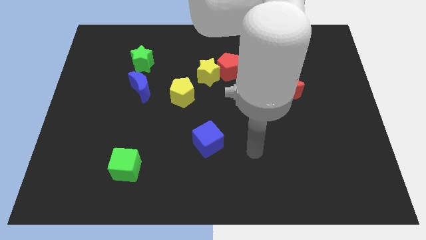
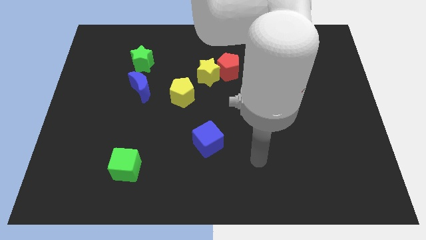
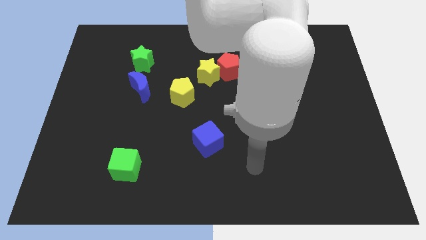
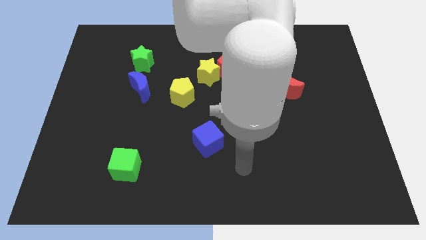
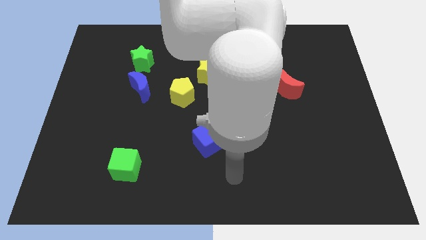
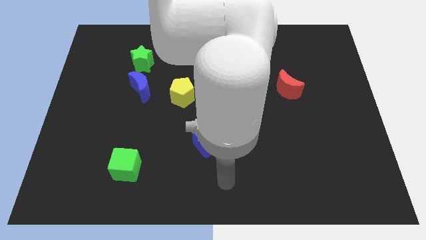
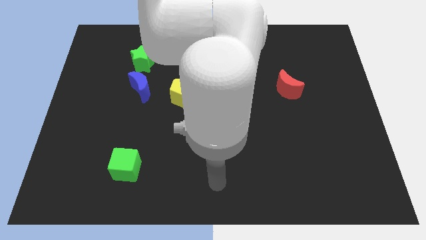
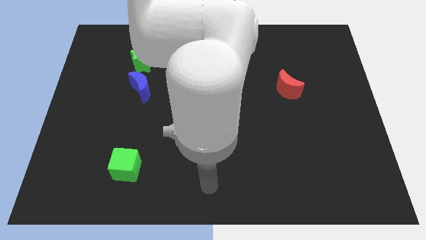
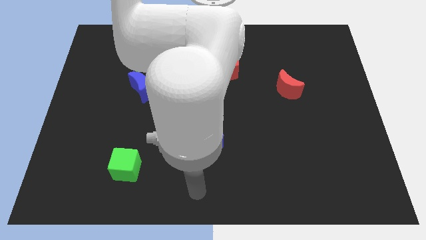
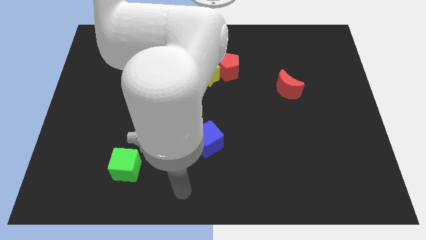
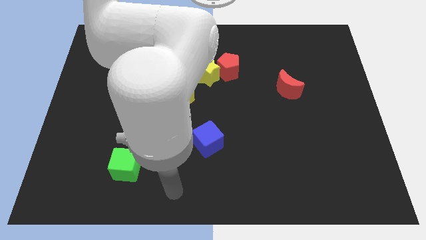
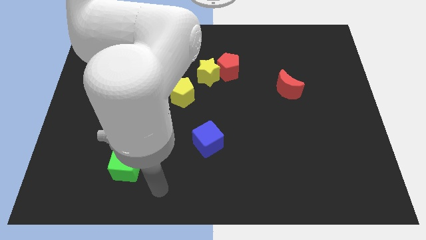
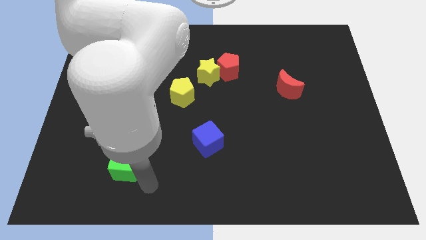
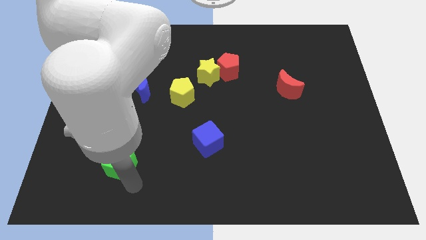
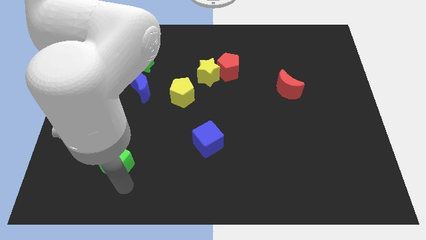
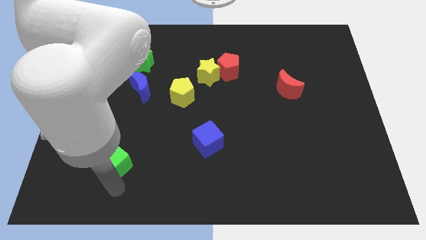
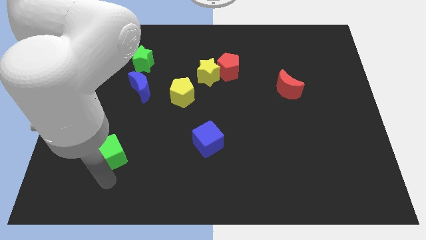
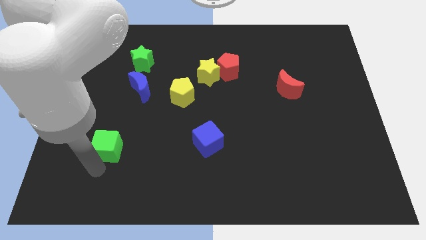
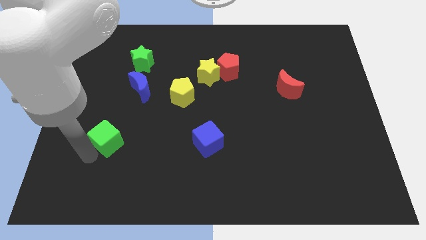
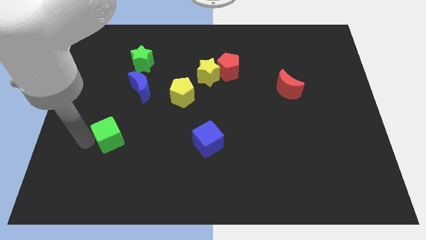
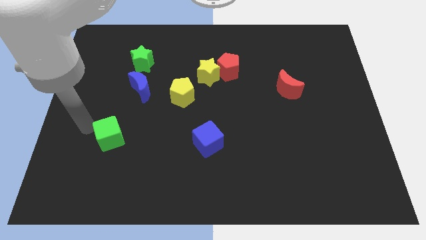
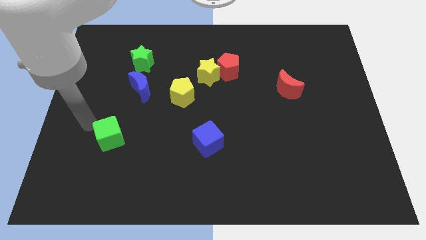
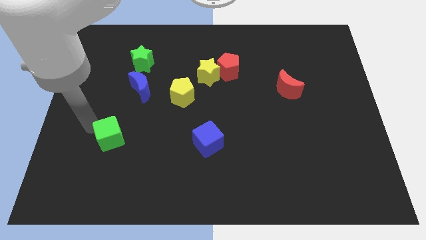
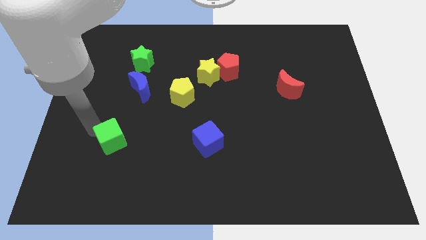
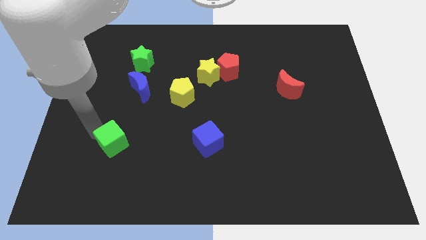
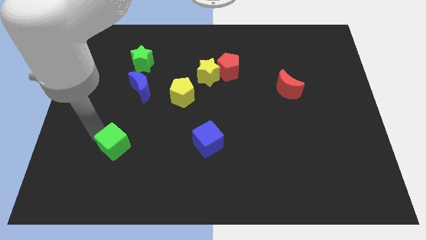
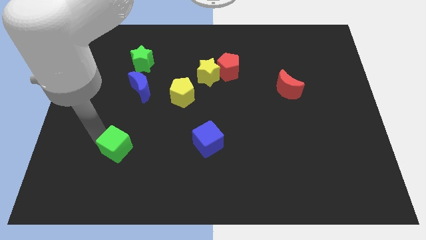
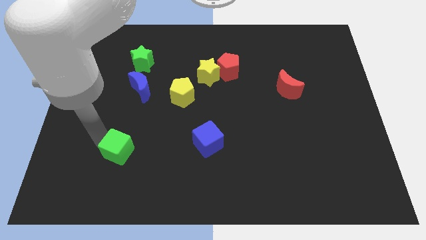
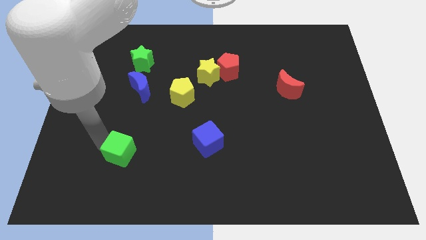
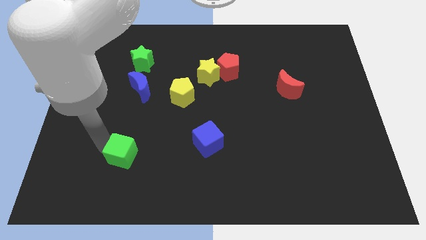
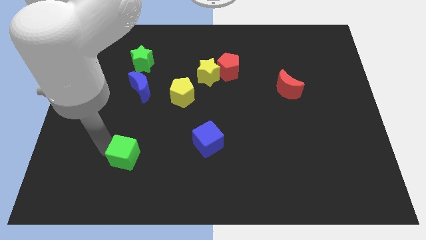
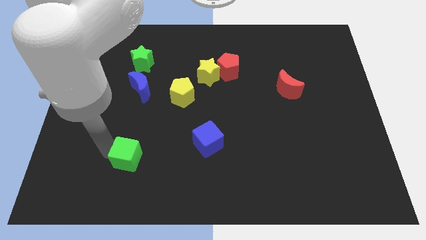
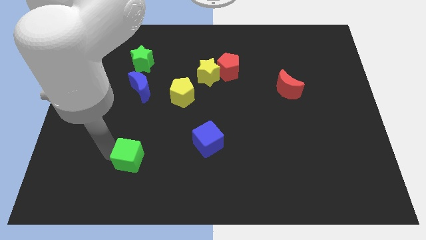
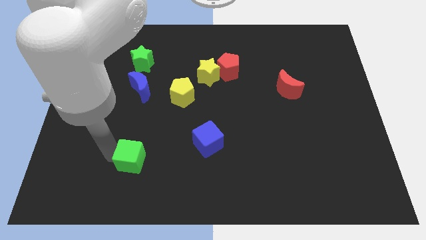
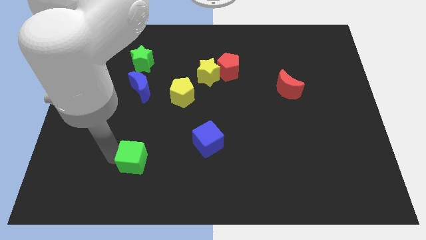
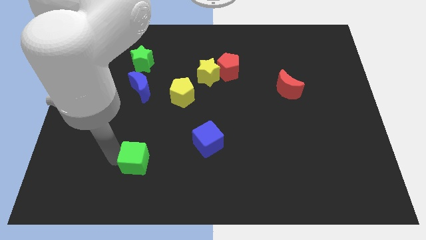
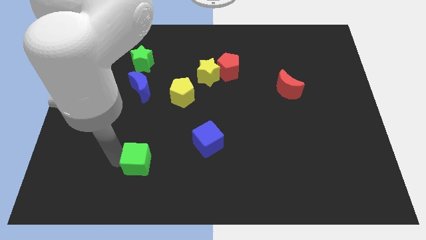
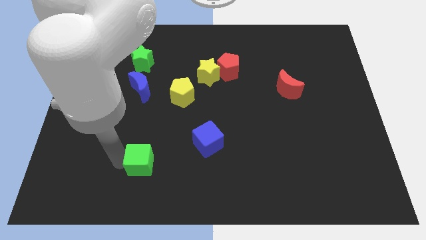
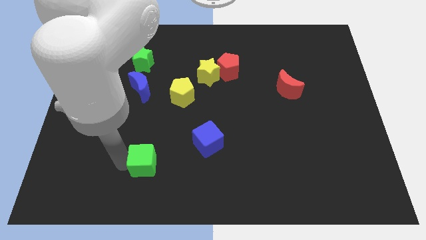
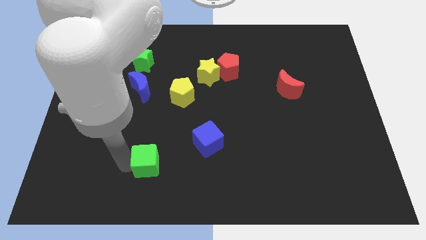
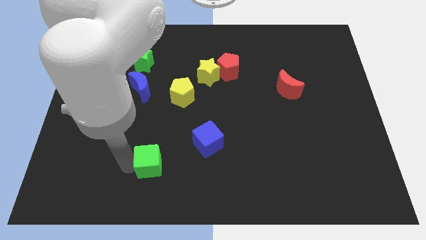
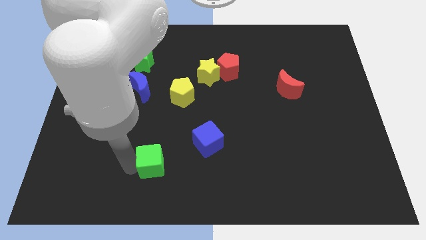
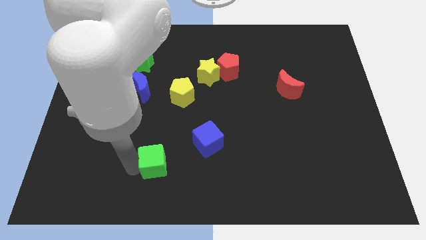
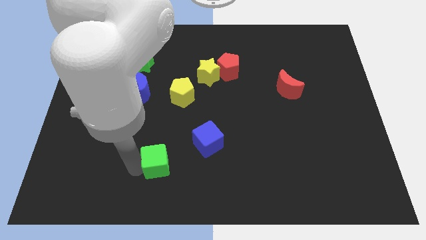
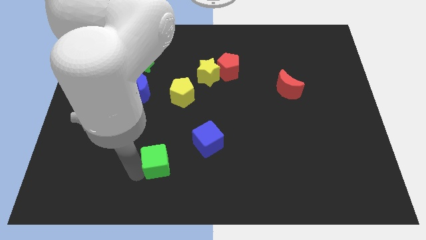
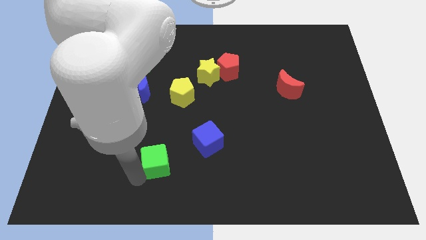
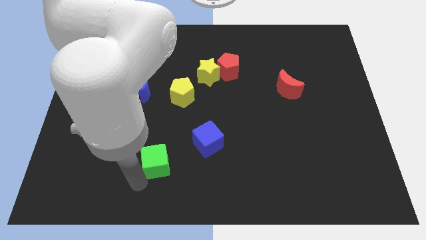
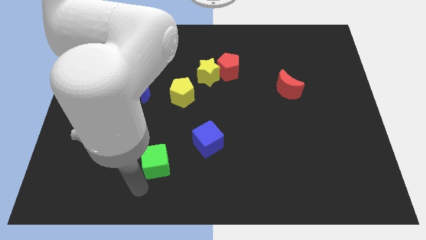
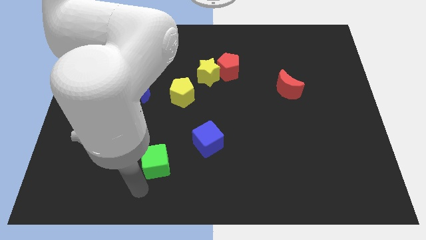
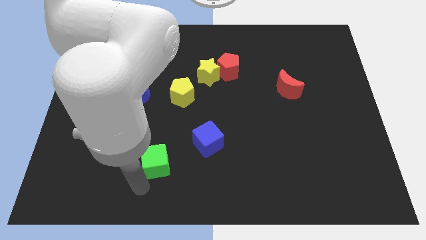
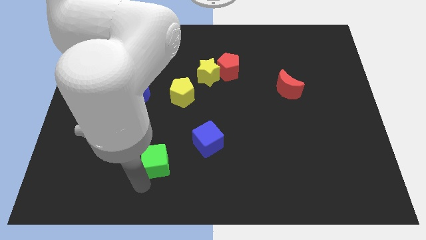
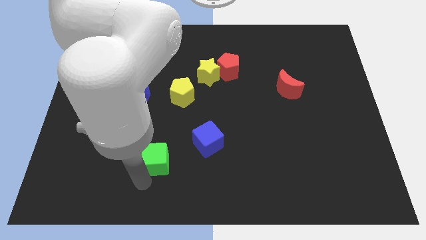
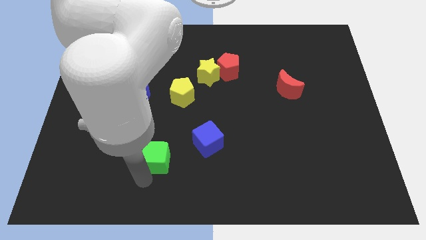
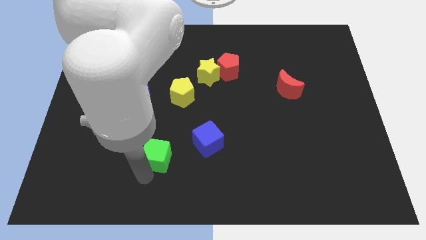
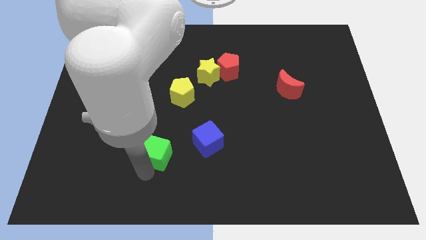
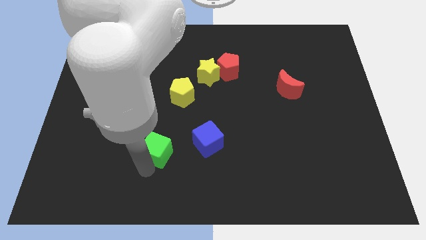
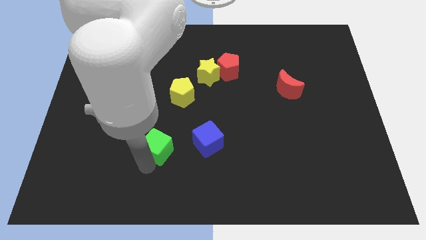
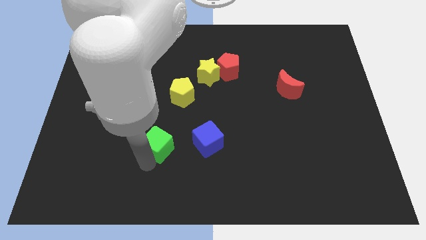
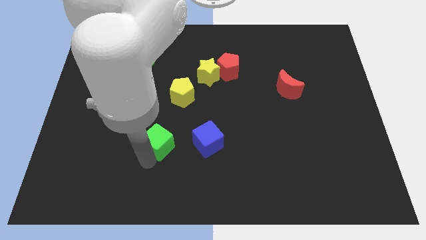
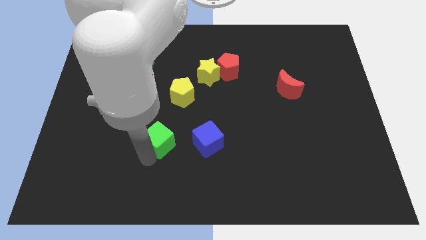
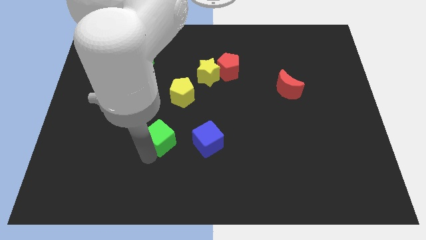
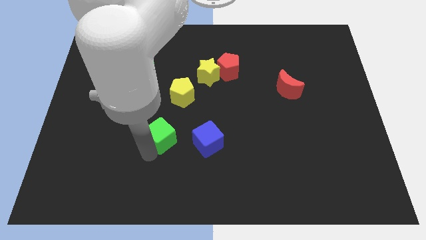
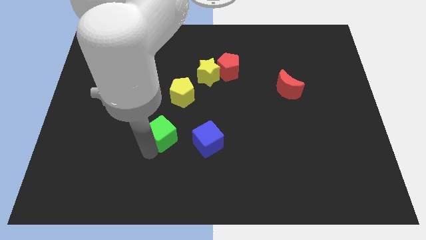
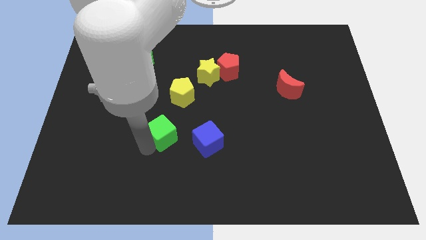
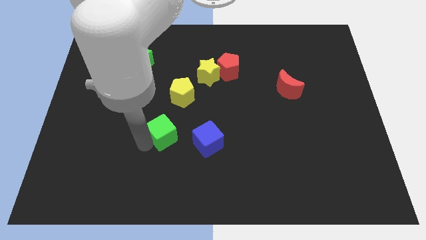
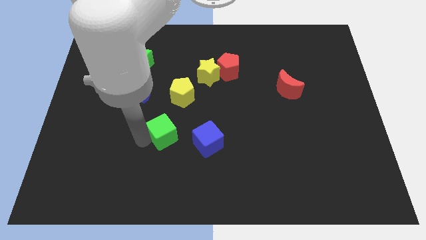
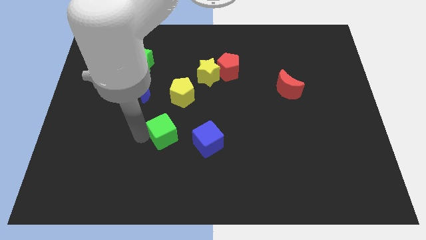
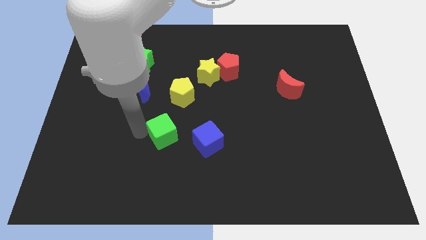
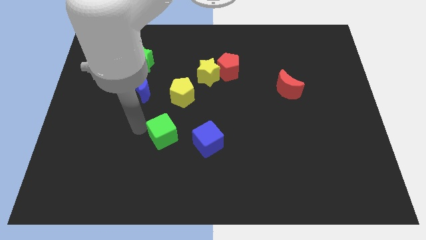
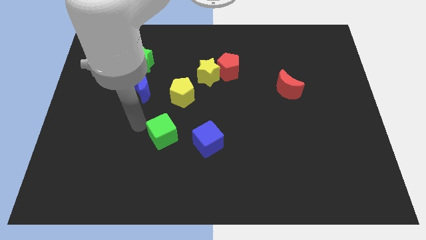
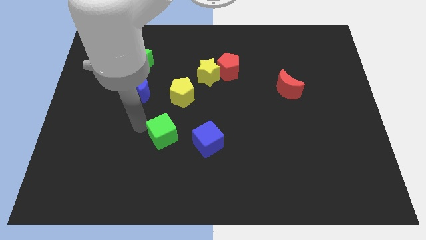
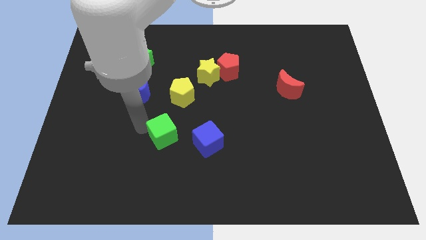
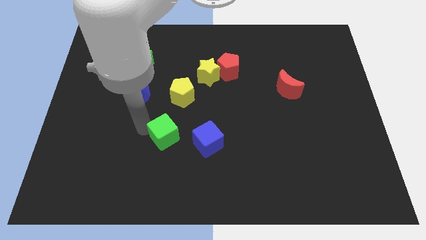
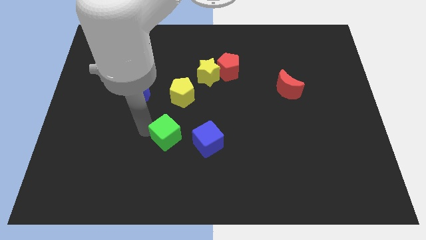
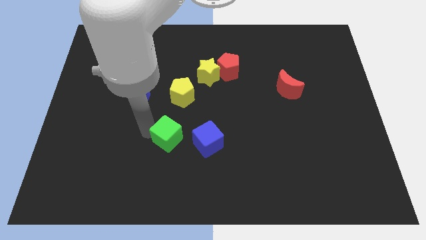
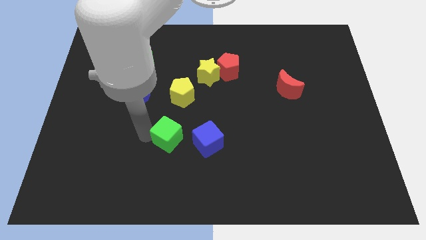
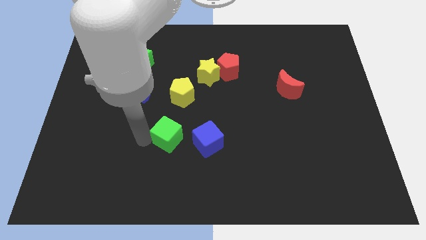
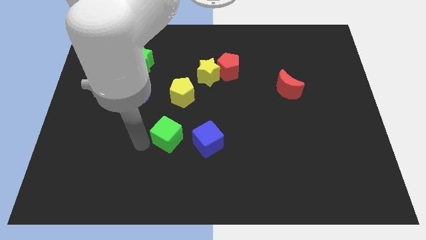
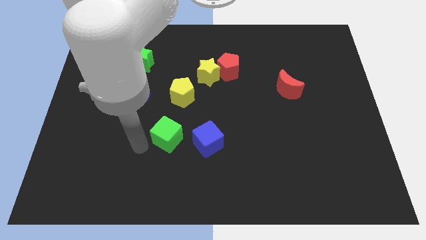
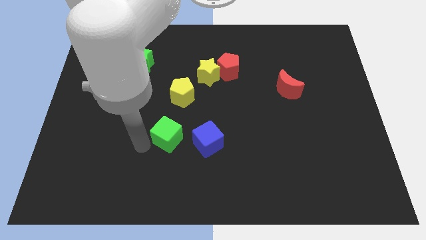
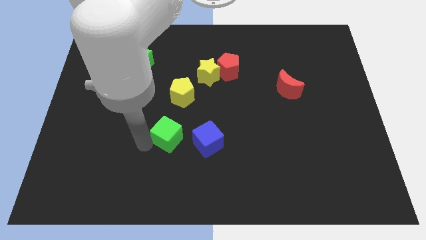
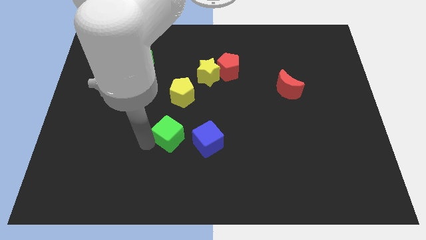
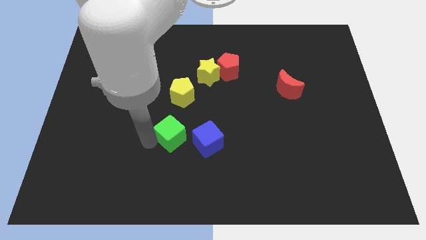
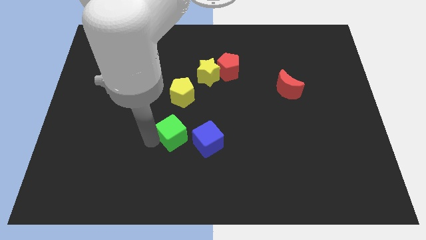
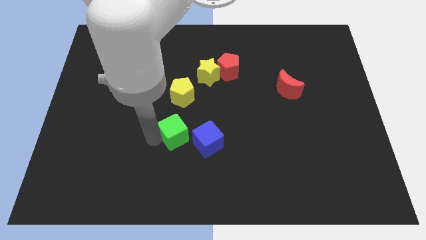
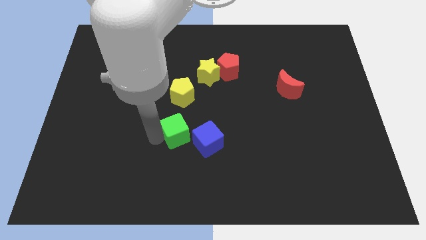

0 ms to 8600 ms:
slide the green cube to the middle of the board

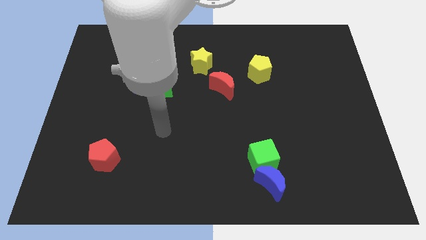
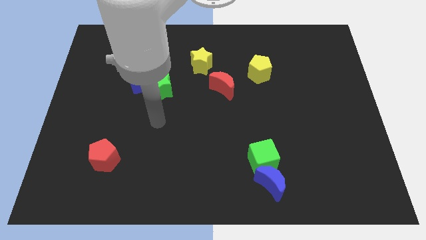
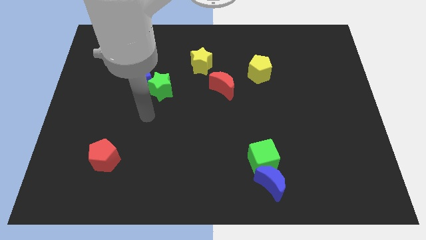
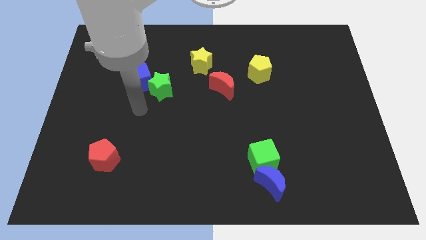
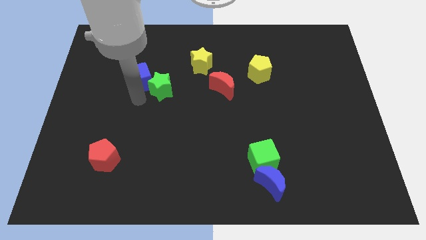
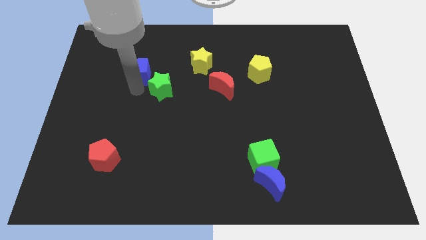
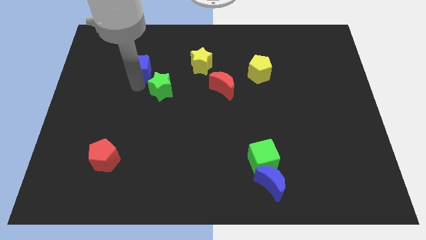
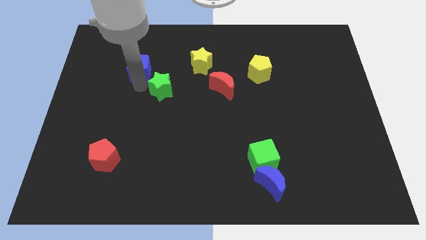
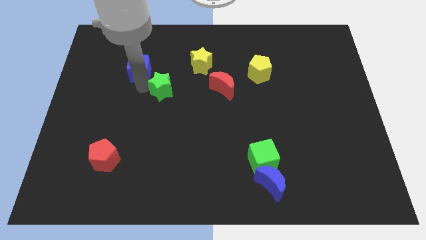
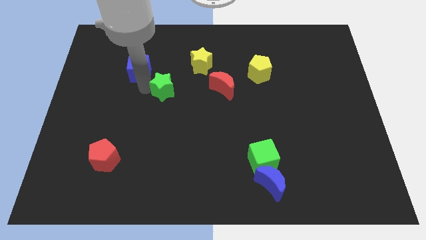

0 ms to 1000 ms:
push the green star to the center of the board
